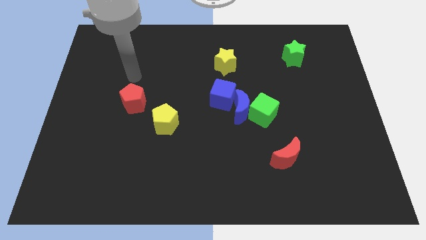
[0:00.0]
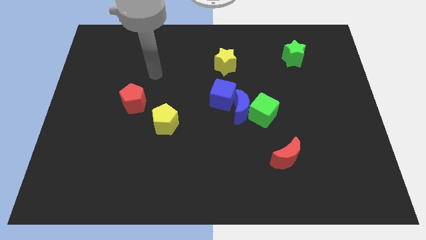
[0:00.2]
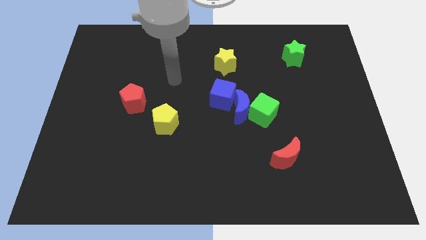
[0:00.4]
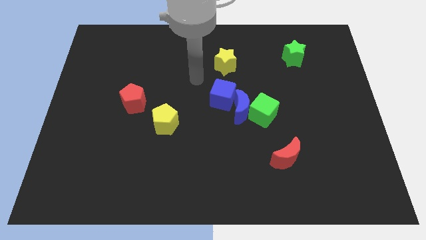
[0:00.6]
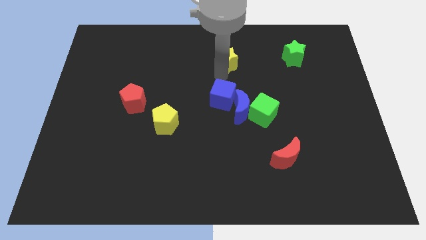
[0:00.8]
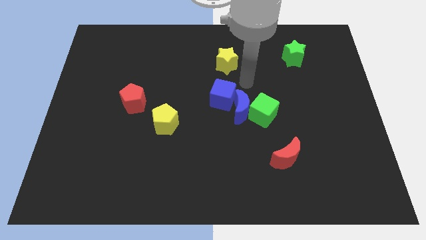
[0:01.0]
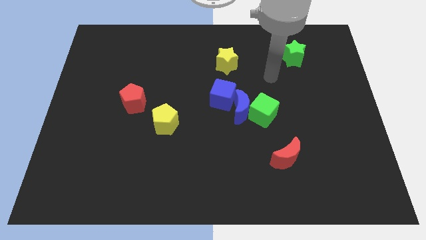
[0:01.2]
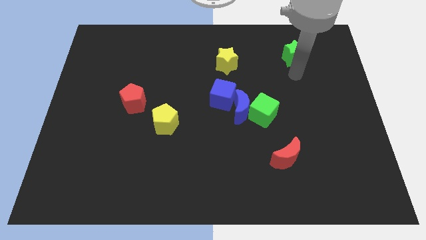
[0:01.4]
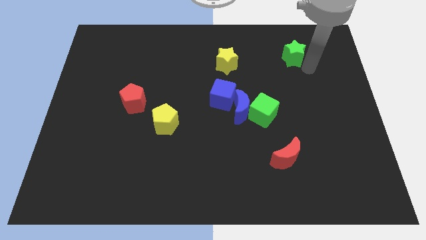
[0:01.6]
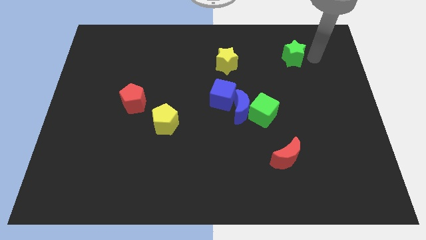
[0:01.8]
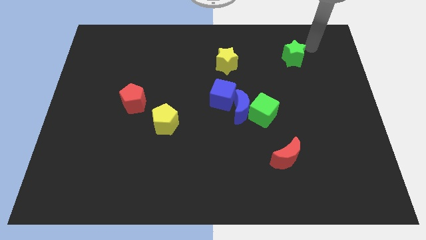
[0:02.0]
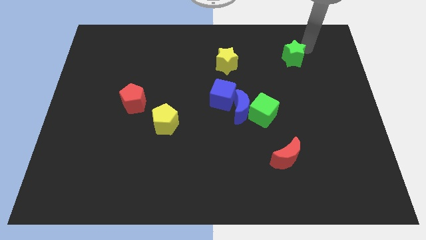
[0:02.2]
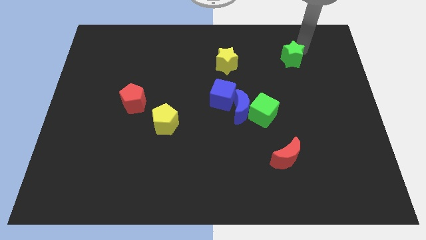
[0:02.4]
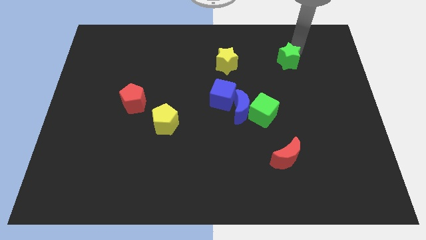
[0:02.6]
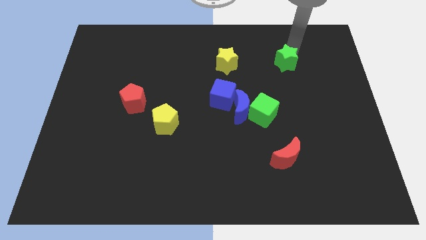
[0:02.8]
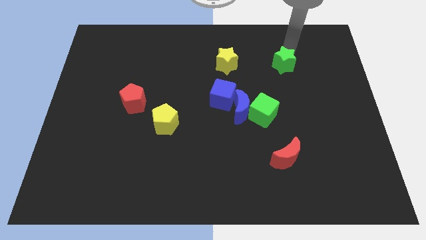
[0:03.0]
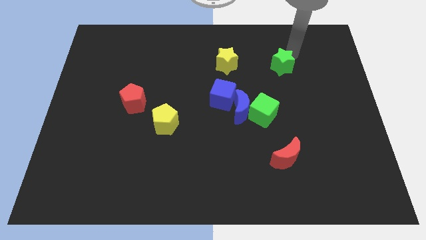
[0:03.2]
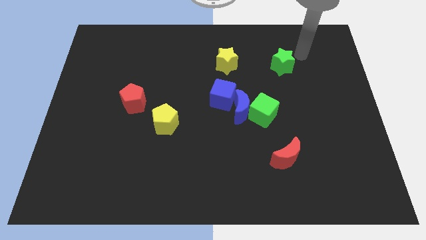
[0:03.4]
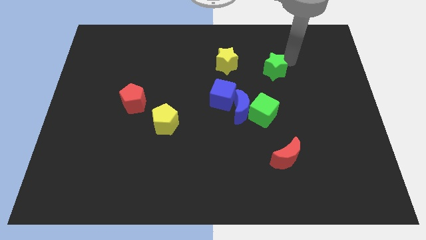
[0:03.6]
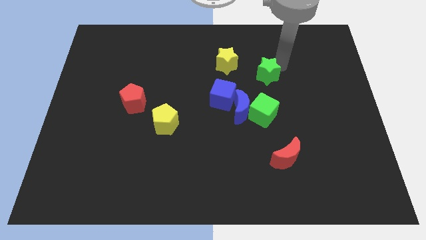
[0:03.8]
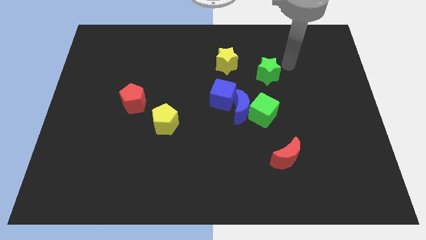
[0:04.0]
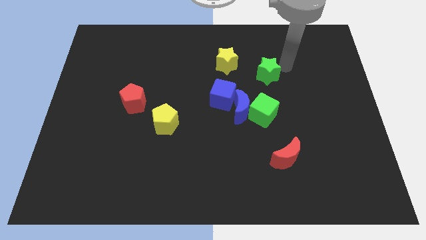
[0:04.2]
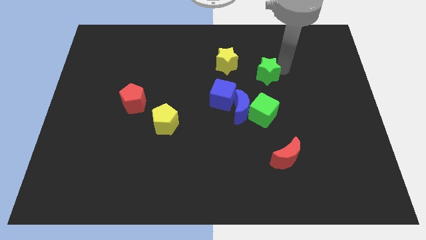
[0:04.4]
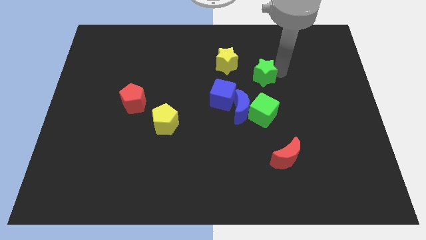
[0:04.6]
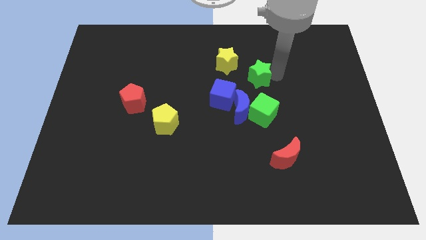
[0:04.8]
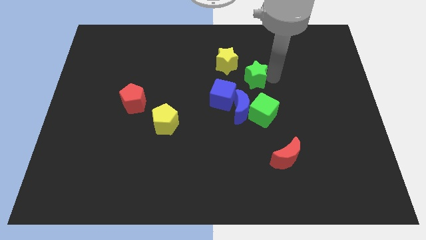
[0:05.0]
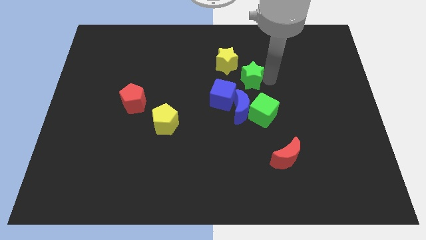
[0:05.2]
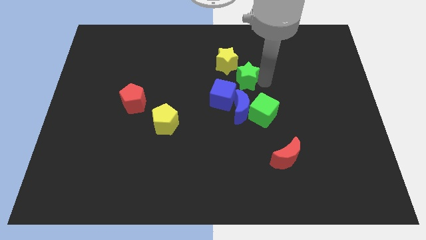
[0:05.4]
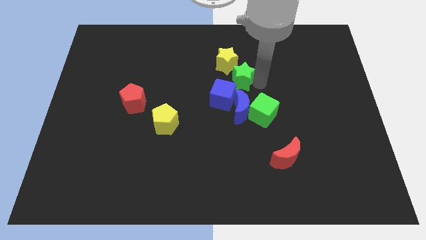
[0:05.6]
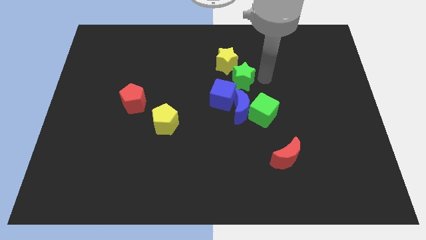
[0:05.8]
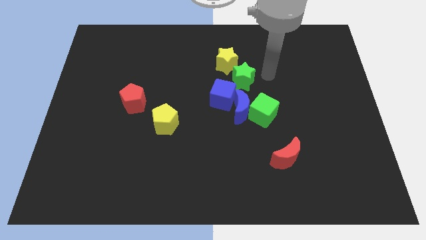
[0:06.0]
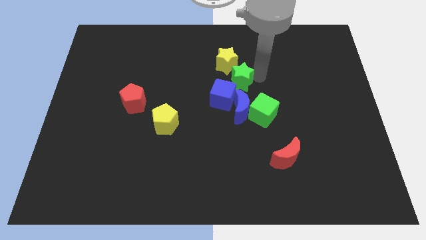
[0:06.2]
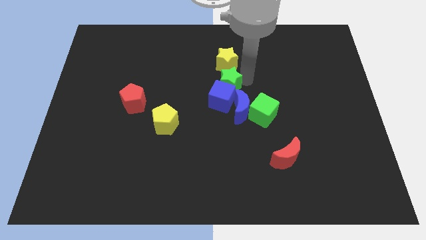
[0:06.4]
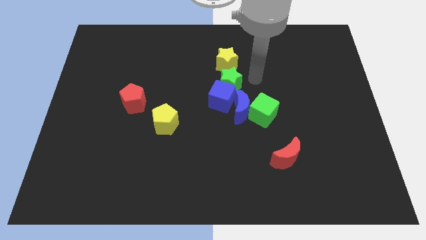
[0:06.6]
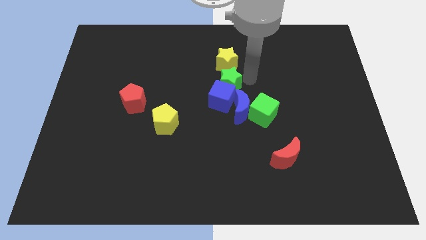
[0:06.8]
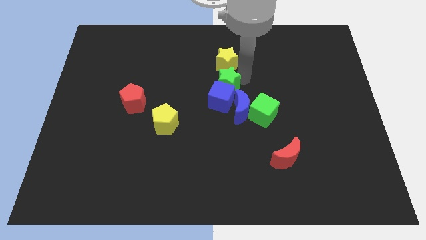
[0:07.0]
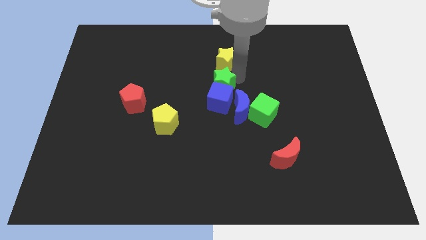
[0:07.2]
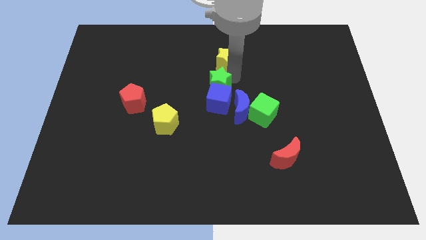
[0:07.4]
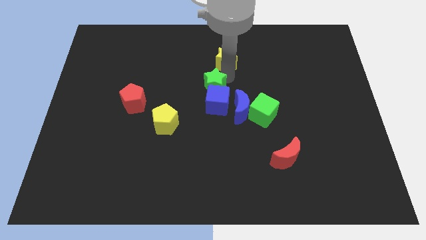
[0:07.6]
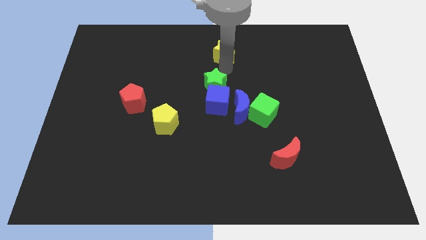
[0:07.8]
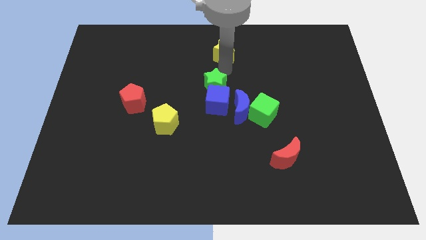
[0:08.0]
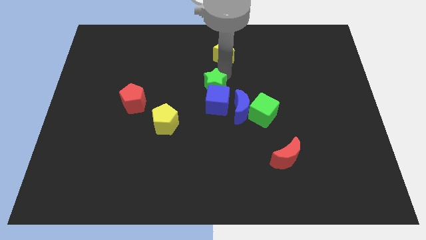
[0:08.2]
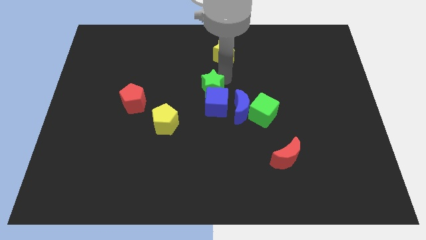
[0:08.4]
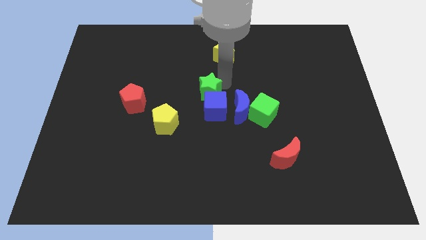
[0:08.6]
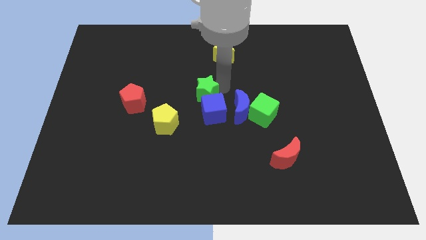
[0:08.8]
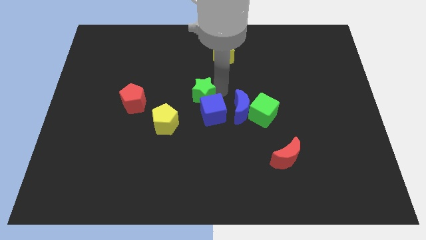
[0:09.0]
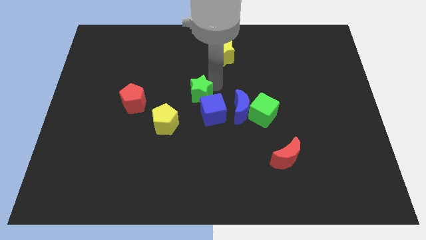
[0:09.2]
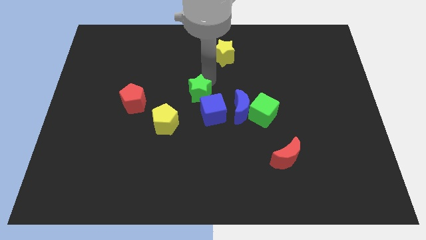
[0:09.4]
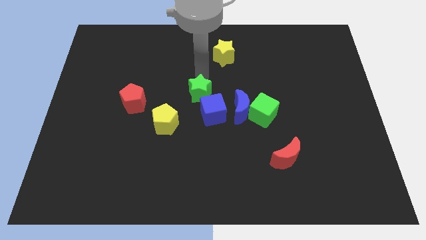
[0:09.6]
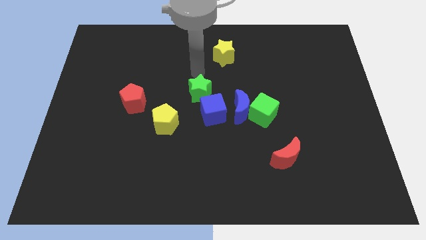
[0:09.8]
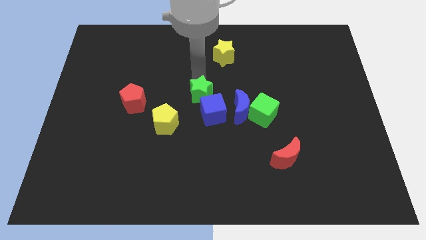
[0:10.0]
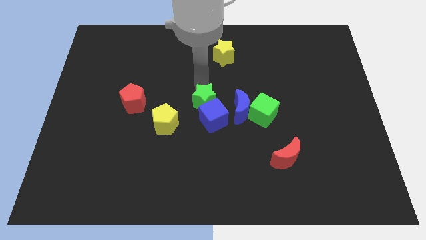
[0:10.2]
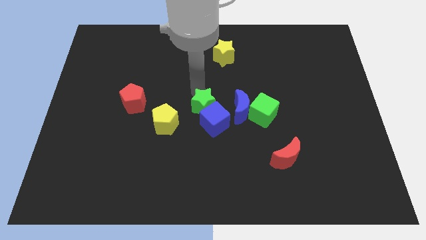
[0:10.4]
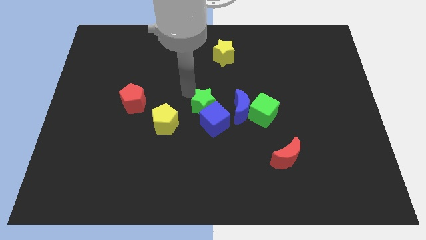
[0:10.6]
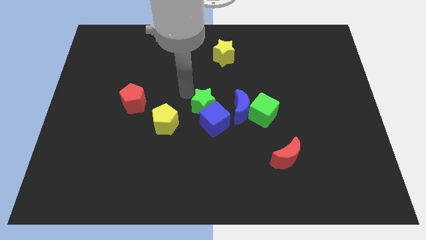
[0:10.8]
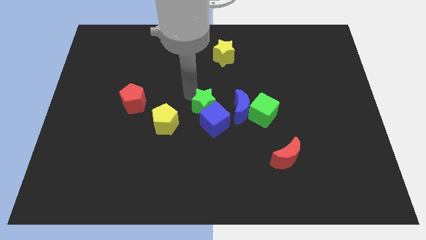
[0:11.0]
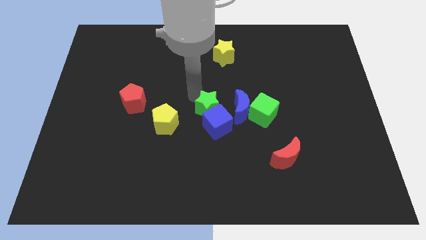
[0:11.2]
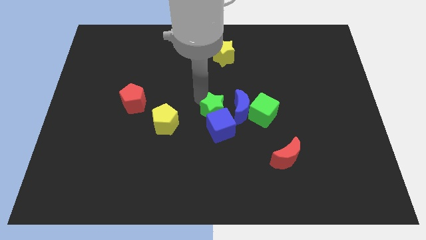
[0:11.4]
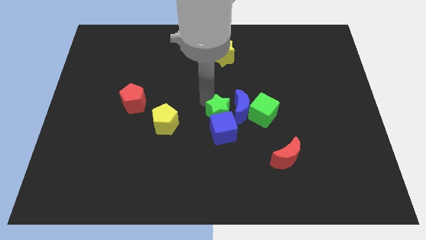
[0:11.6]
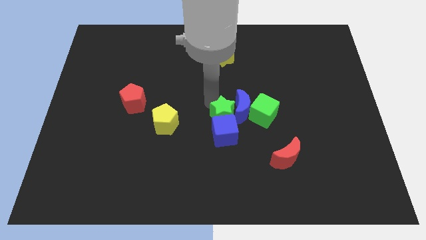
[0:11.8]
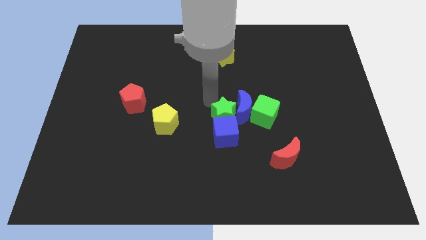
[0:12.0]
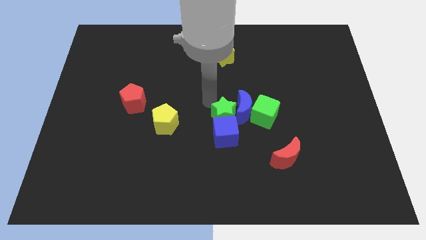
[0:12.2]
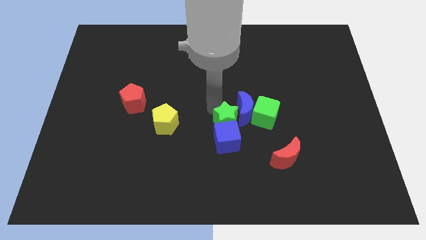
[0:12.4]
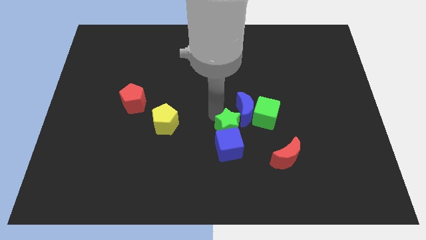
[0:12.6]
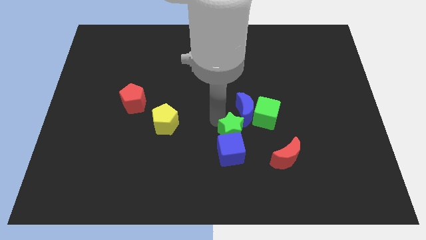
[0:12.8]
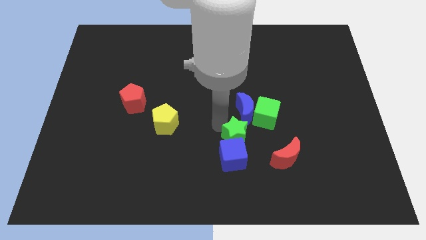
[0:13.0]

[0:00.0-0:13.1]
push the green star to the top left of the red moon
